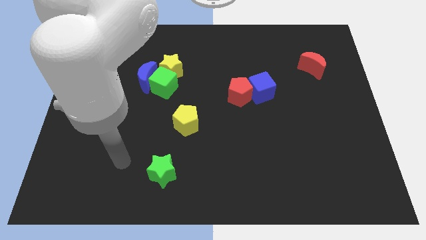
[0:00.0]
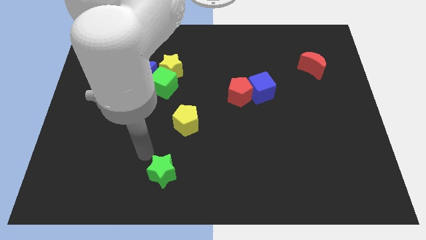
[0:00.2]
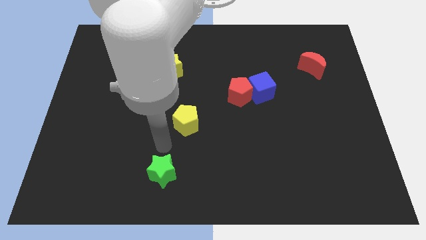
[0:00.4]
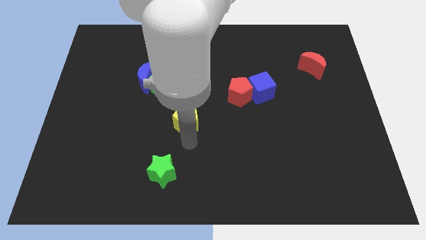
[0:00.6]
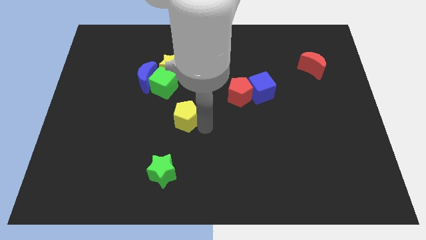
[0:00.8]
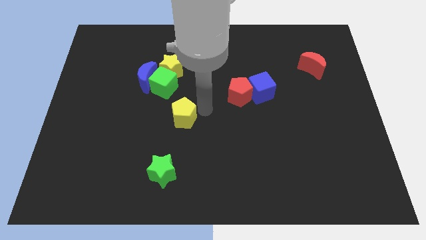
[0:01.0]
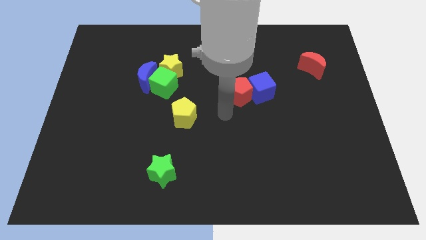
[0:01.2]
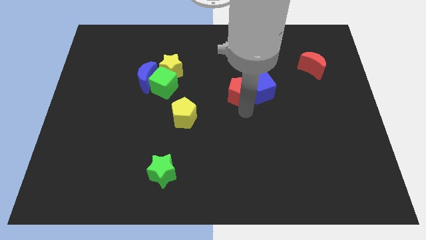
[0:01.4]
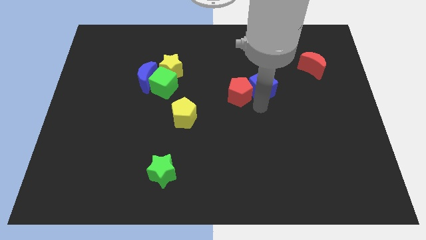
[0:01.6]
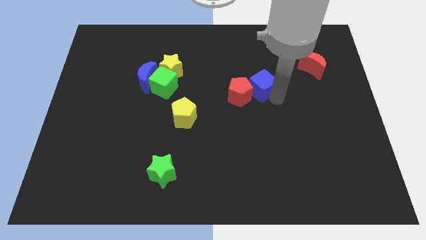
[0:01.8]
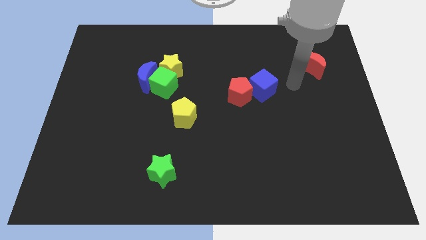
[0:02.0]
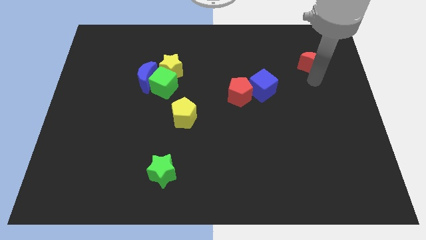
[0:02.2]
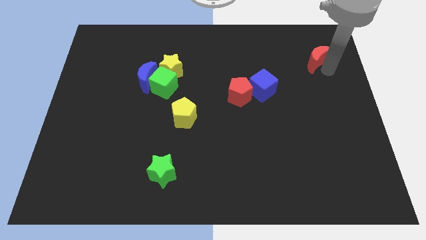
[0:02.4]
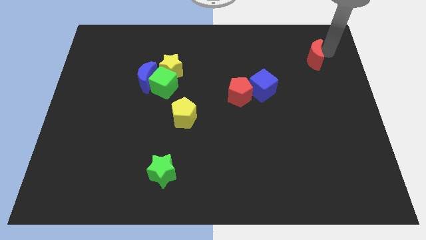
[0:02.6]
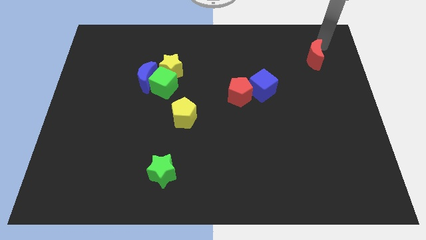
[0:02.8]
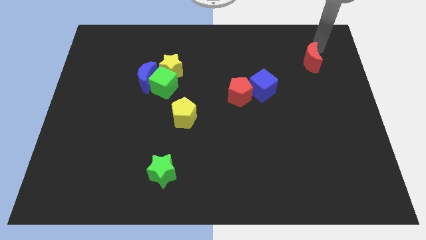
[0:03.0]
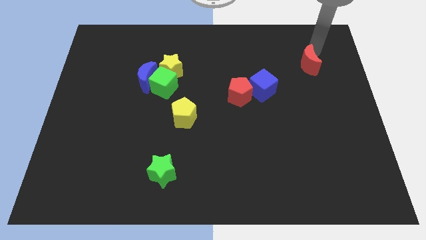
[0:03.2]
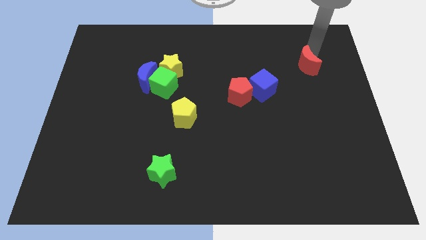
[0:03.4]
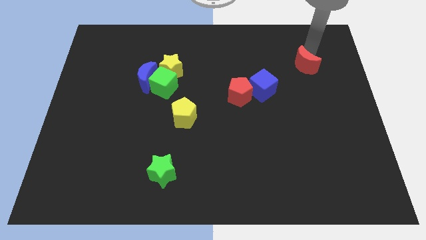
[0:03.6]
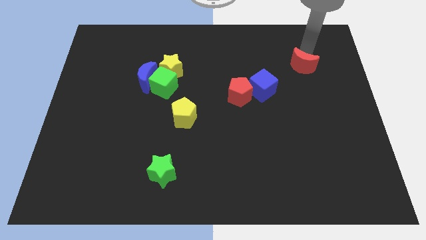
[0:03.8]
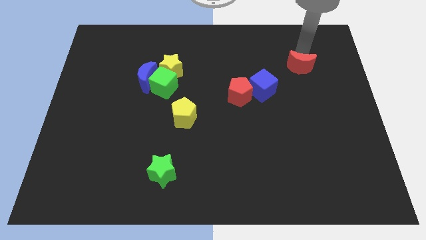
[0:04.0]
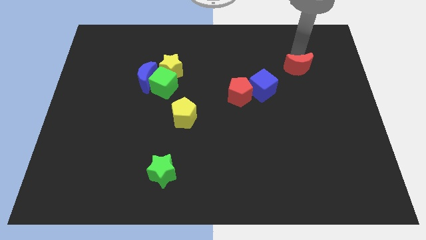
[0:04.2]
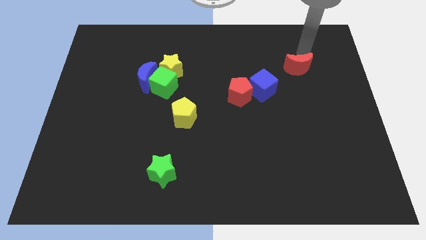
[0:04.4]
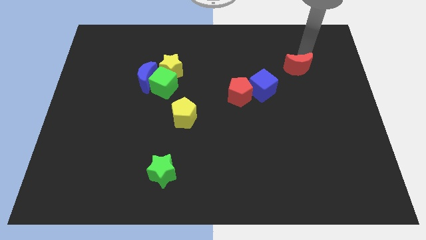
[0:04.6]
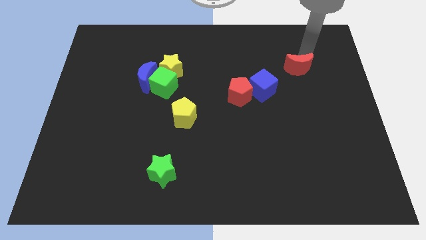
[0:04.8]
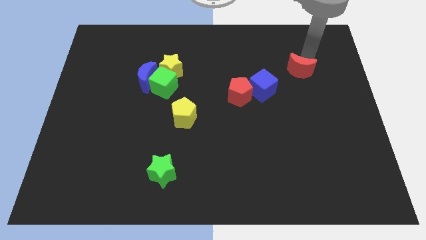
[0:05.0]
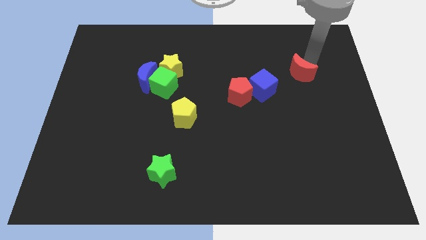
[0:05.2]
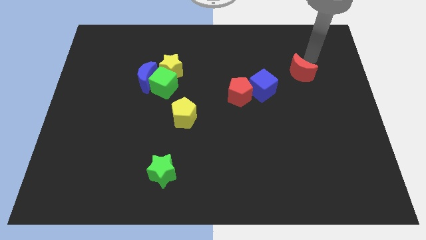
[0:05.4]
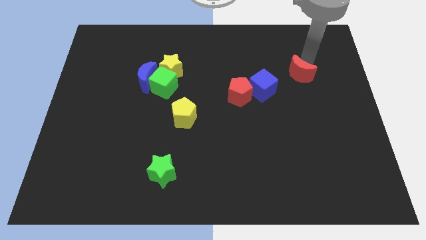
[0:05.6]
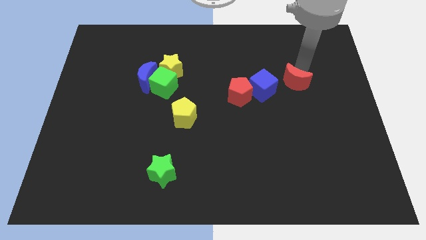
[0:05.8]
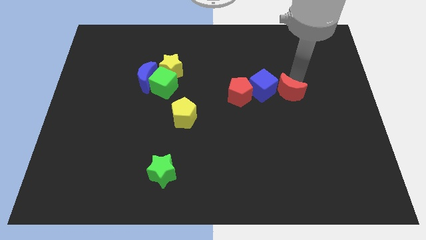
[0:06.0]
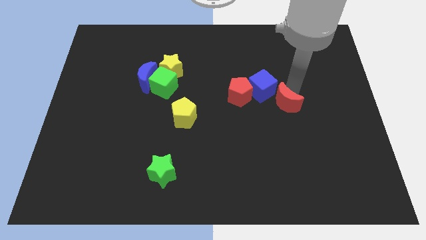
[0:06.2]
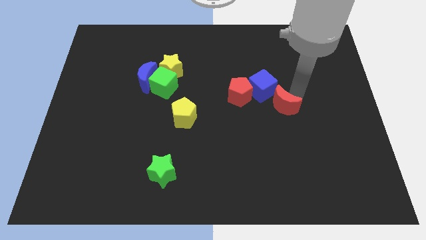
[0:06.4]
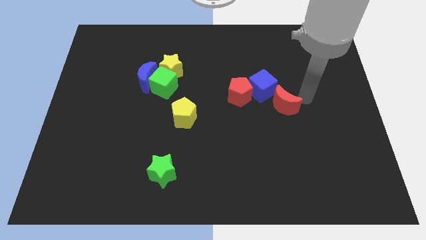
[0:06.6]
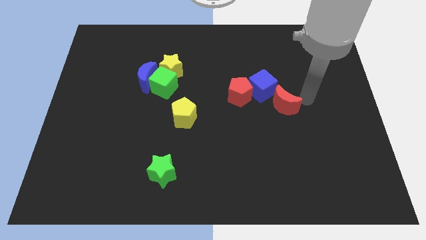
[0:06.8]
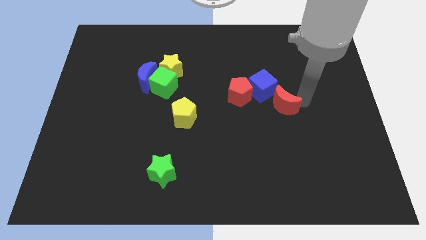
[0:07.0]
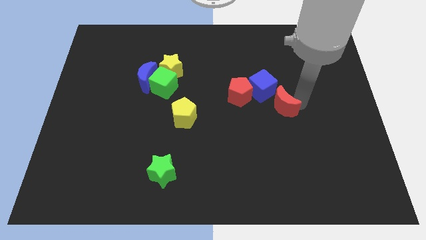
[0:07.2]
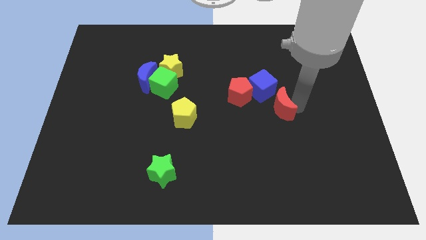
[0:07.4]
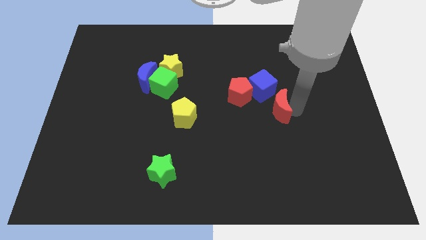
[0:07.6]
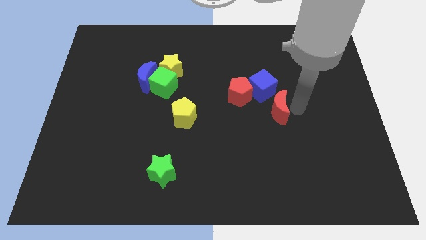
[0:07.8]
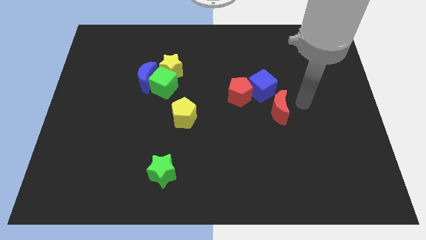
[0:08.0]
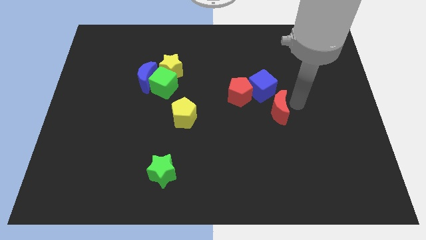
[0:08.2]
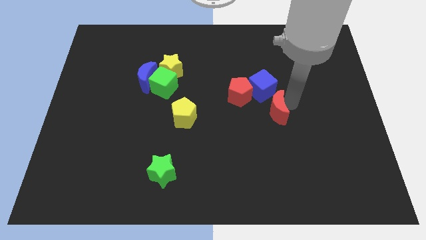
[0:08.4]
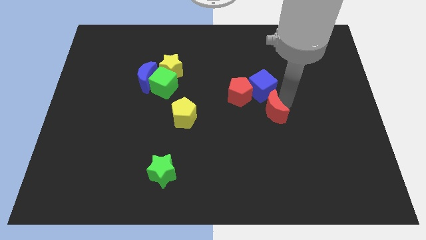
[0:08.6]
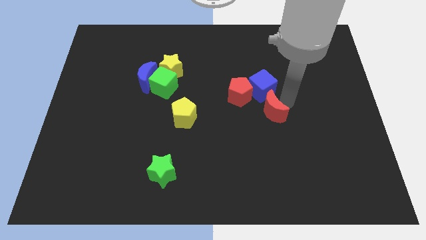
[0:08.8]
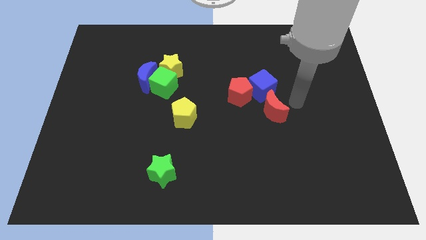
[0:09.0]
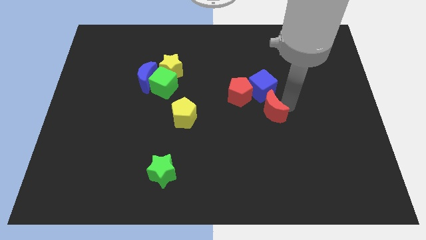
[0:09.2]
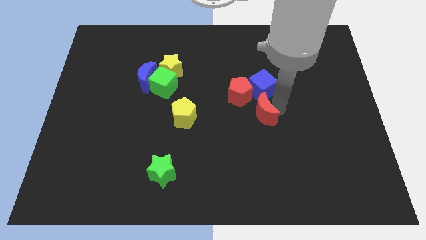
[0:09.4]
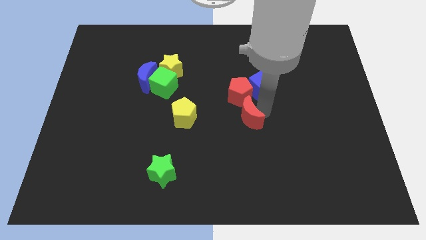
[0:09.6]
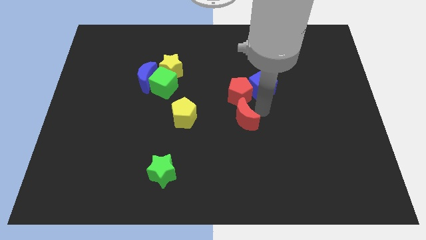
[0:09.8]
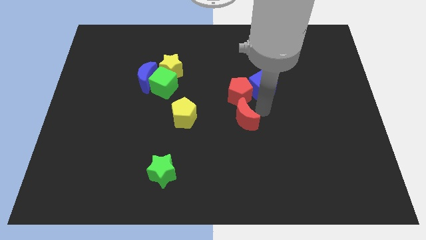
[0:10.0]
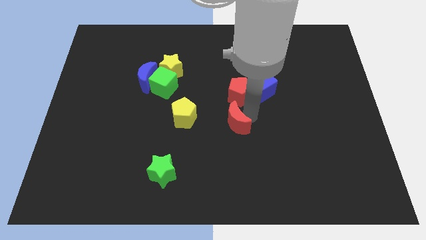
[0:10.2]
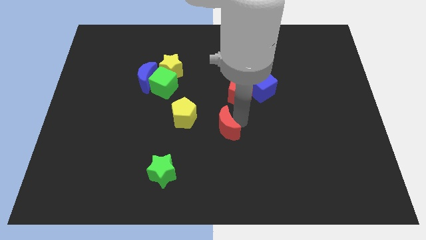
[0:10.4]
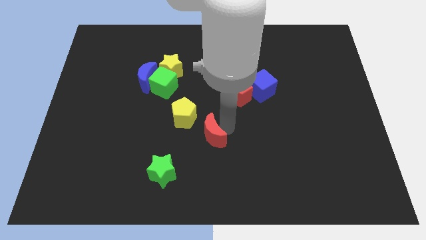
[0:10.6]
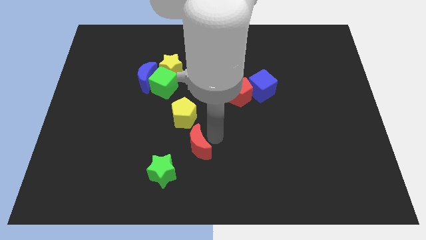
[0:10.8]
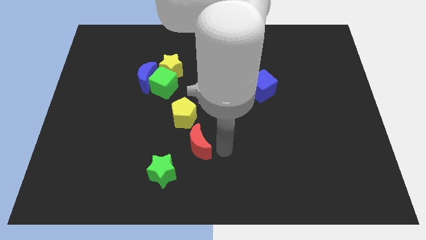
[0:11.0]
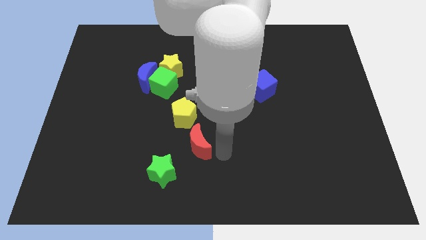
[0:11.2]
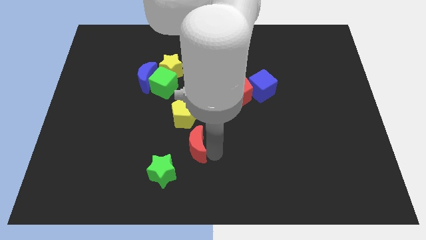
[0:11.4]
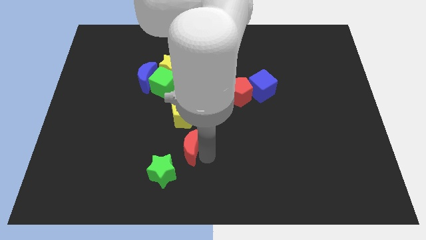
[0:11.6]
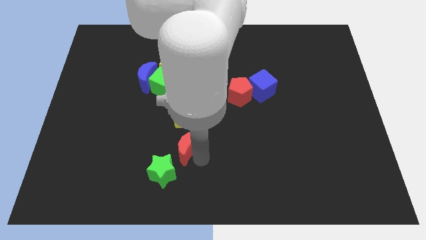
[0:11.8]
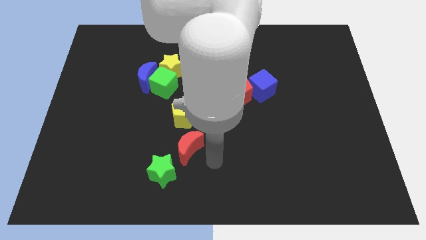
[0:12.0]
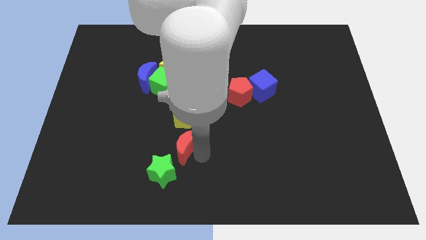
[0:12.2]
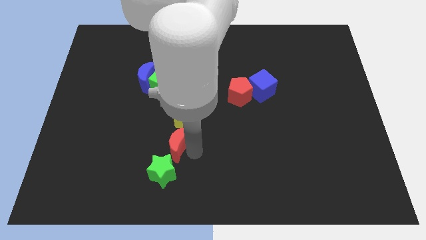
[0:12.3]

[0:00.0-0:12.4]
push the red moon diagonally down and to the left of the yellow pentagon

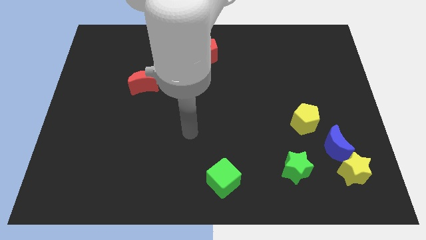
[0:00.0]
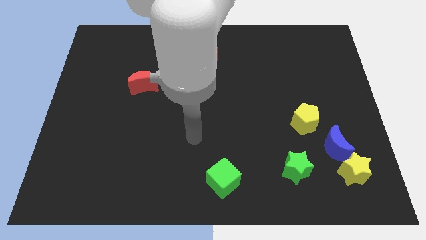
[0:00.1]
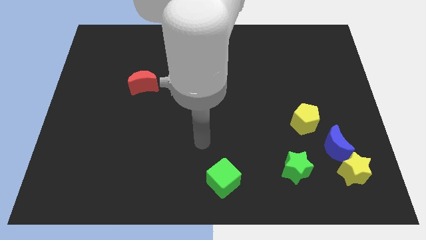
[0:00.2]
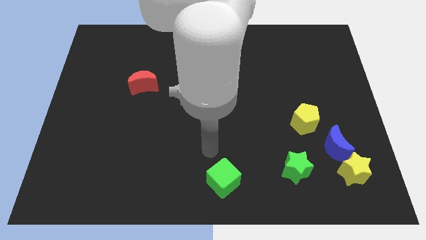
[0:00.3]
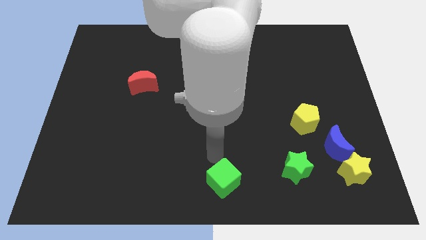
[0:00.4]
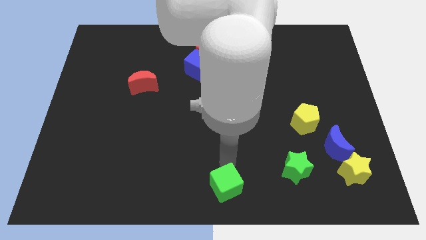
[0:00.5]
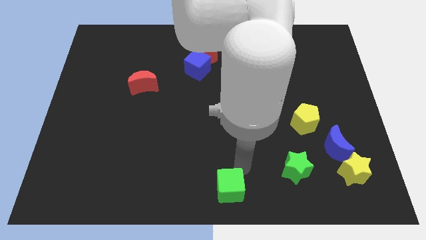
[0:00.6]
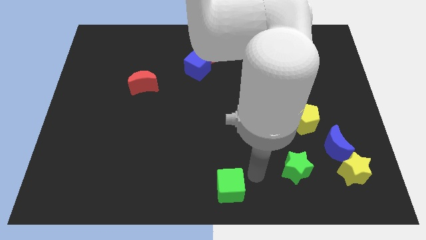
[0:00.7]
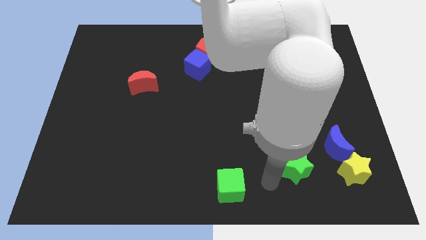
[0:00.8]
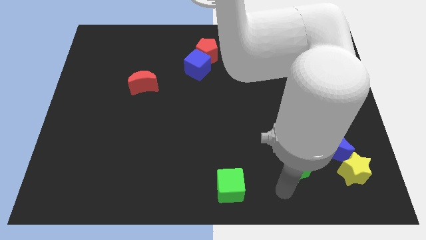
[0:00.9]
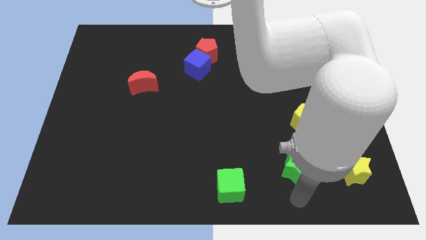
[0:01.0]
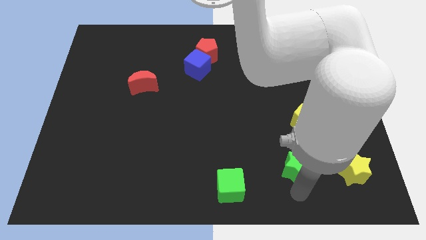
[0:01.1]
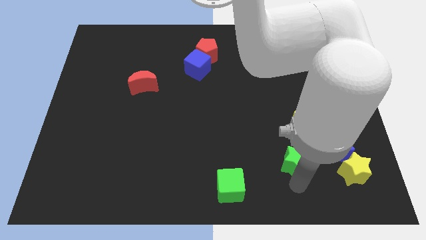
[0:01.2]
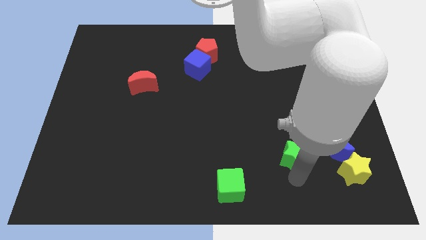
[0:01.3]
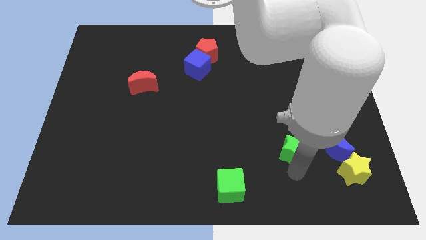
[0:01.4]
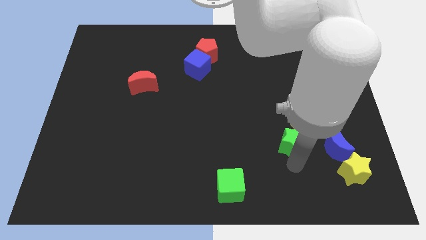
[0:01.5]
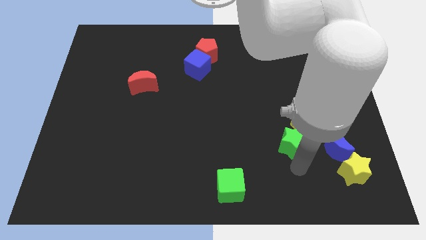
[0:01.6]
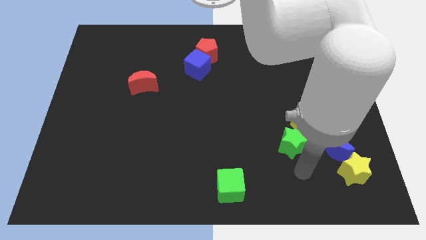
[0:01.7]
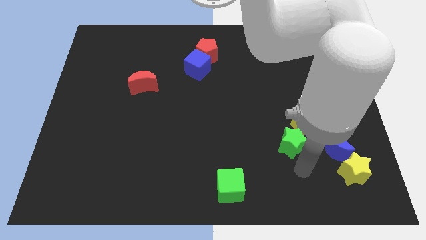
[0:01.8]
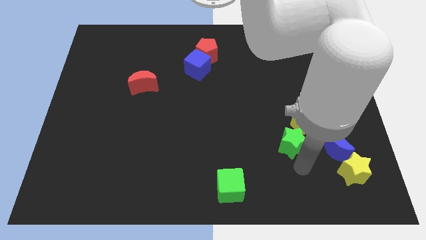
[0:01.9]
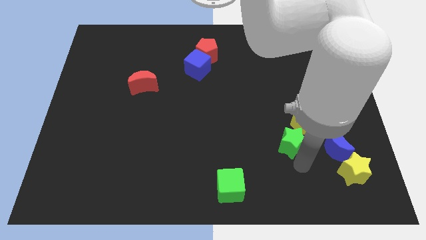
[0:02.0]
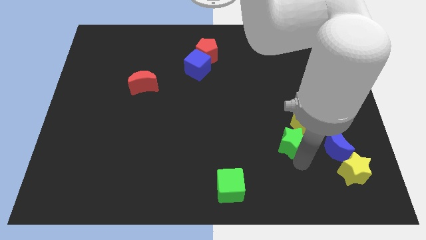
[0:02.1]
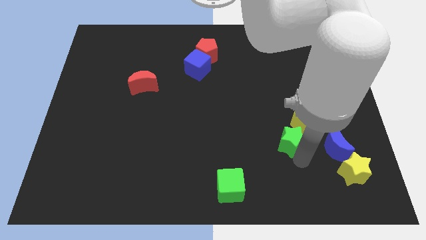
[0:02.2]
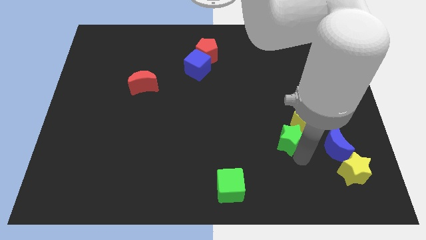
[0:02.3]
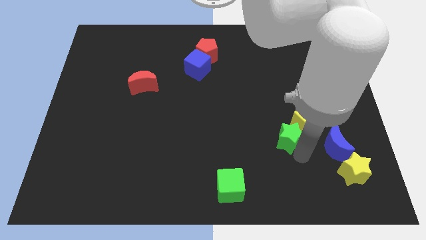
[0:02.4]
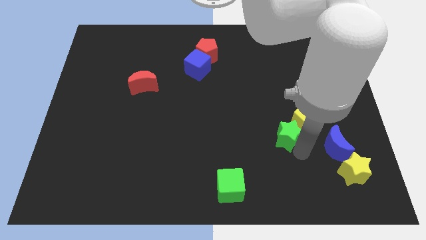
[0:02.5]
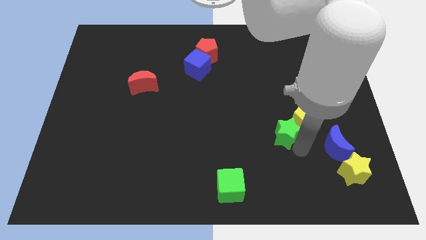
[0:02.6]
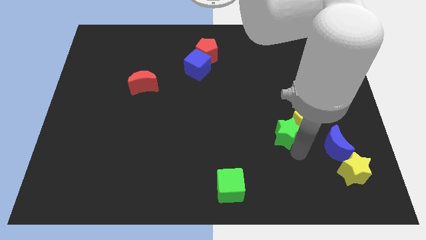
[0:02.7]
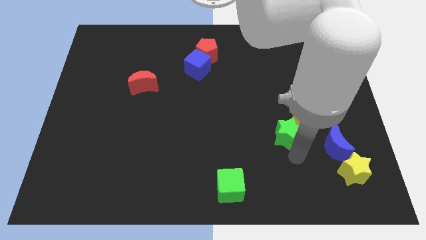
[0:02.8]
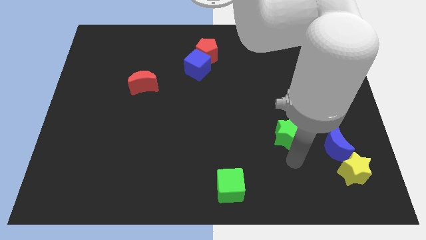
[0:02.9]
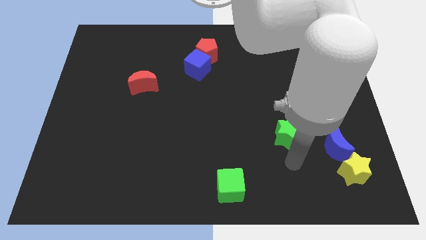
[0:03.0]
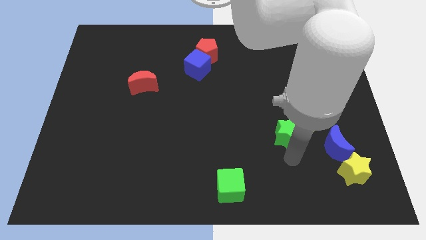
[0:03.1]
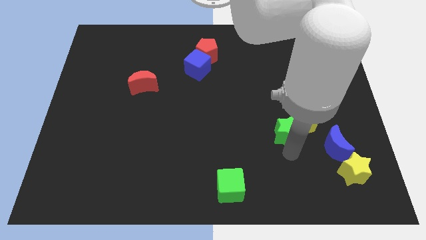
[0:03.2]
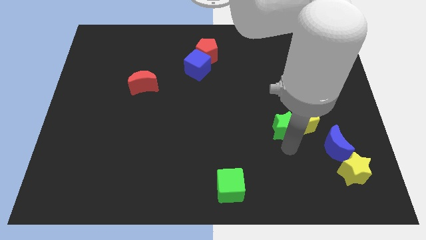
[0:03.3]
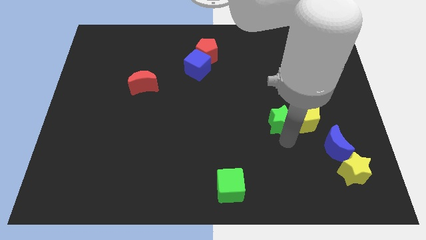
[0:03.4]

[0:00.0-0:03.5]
slide the green star to the top left of the yellow pentagon
